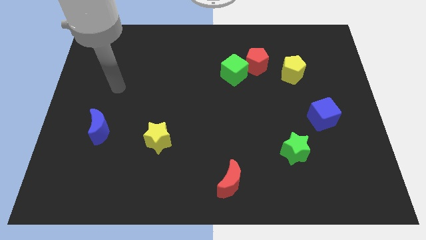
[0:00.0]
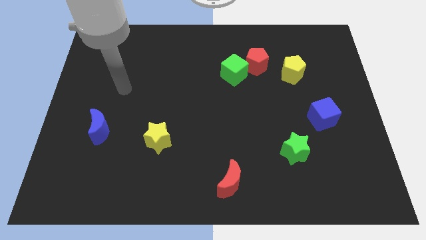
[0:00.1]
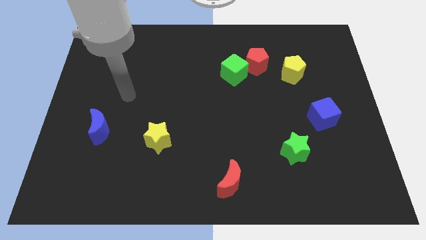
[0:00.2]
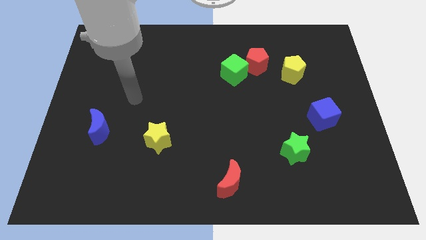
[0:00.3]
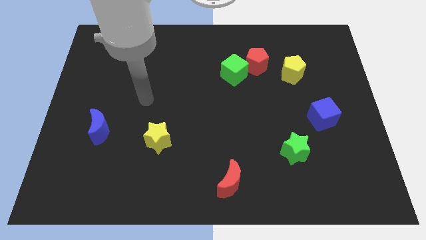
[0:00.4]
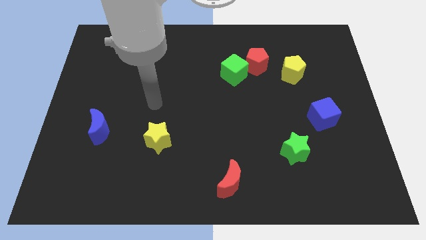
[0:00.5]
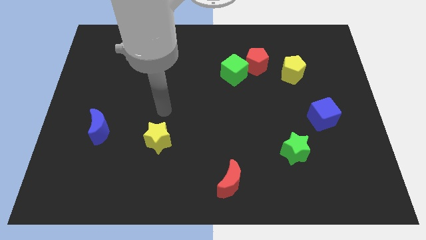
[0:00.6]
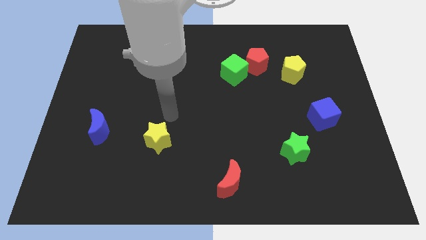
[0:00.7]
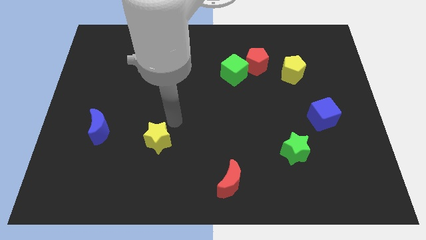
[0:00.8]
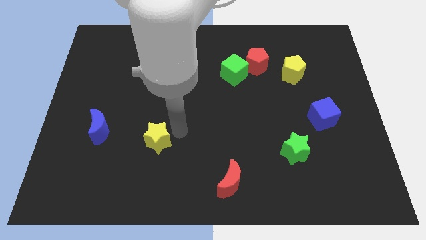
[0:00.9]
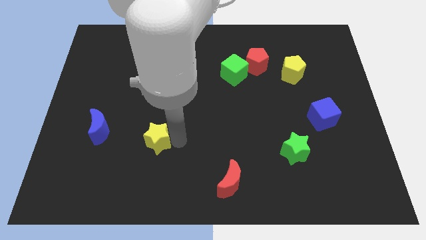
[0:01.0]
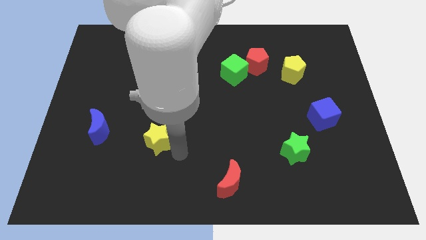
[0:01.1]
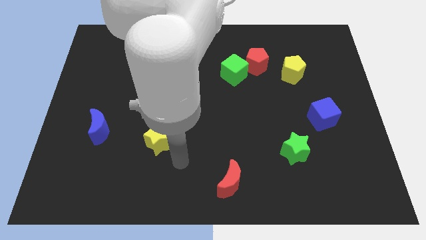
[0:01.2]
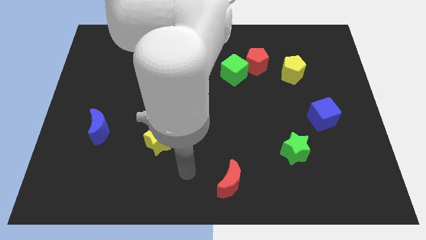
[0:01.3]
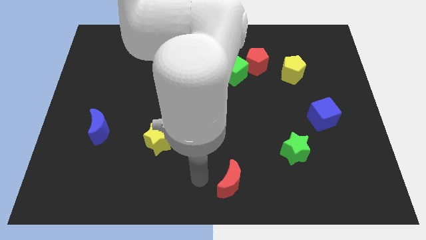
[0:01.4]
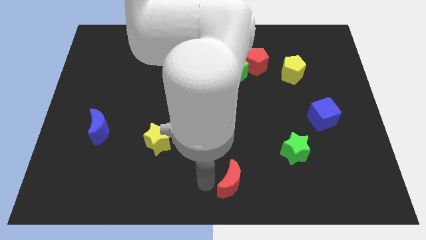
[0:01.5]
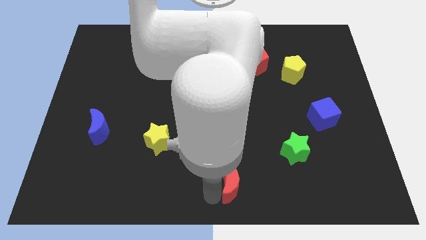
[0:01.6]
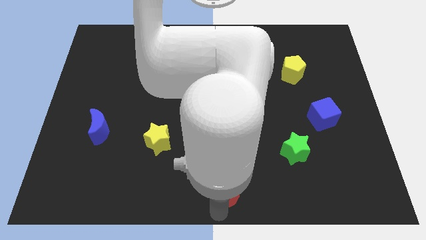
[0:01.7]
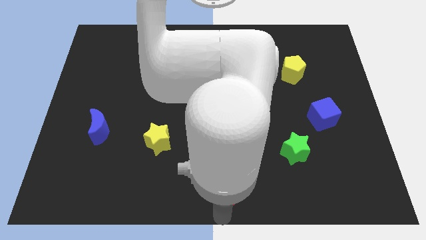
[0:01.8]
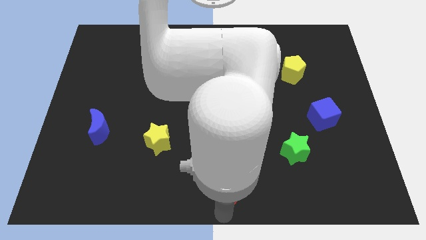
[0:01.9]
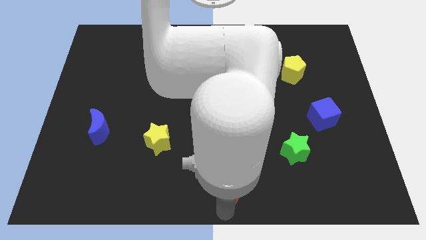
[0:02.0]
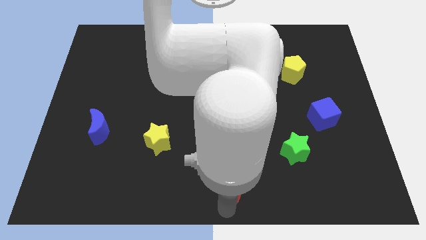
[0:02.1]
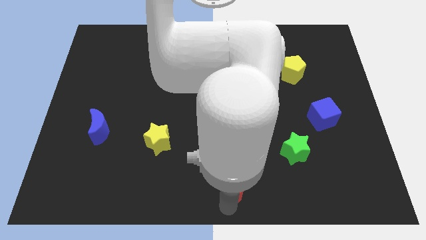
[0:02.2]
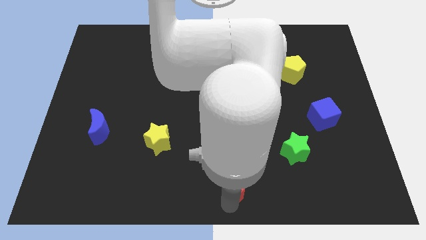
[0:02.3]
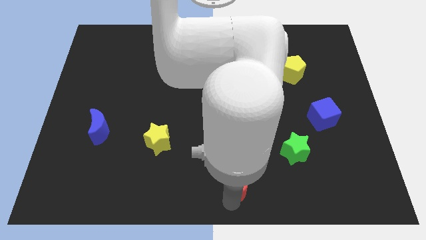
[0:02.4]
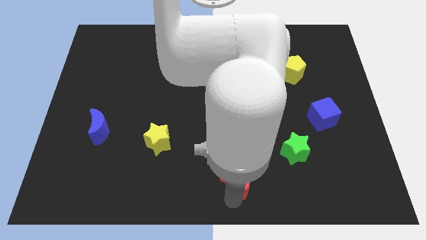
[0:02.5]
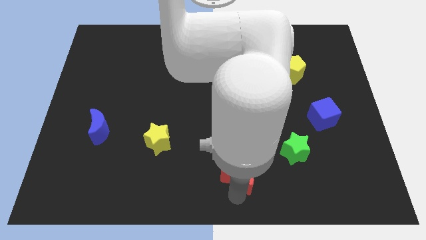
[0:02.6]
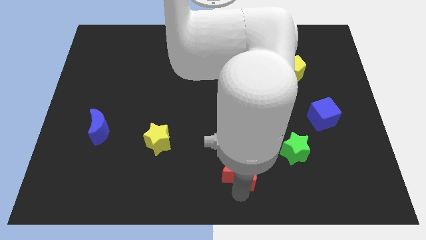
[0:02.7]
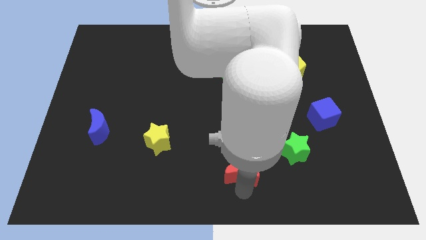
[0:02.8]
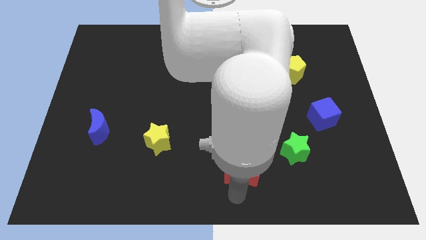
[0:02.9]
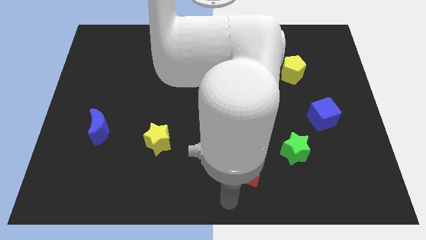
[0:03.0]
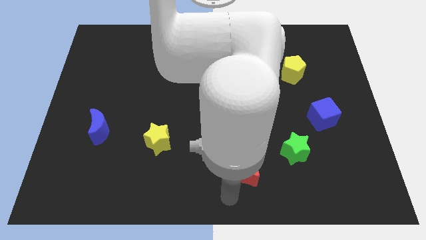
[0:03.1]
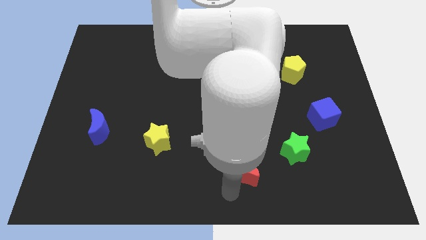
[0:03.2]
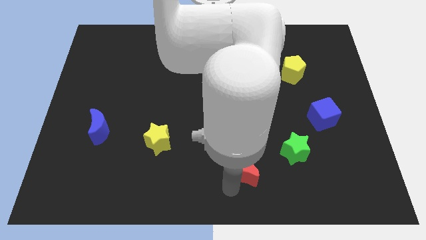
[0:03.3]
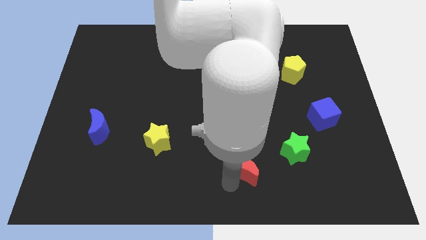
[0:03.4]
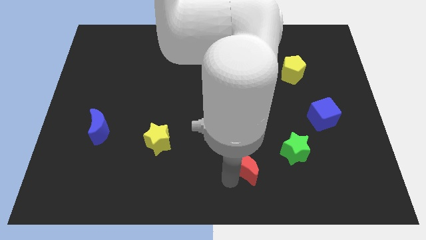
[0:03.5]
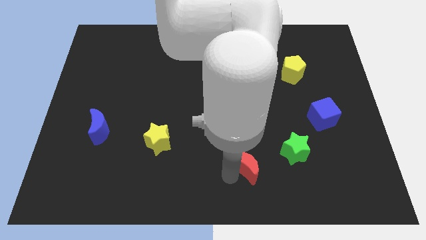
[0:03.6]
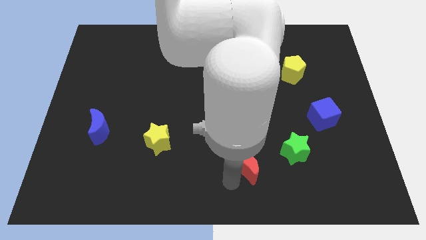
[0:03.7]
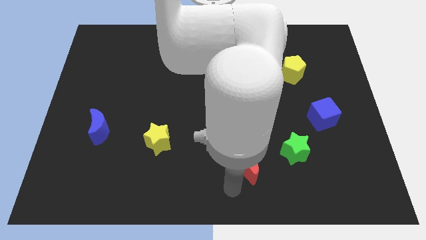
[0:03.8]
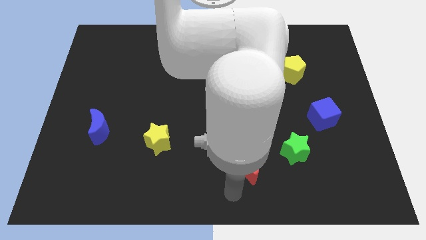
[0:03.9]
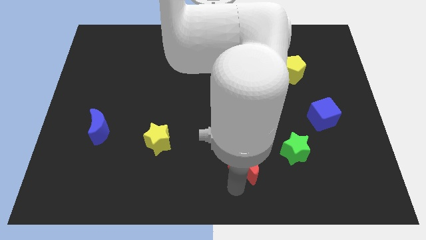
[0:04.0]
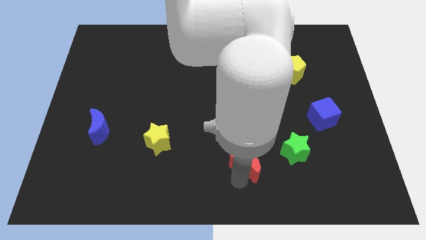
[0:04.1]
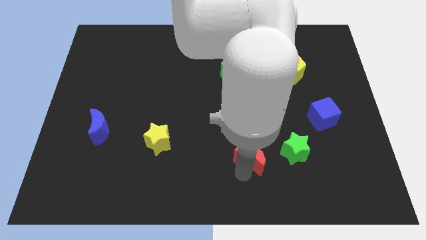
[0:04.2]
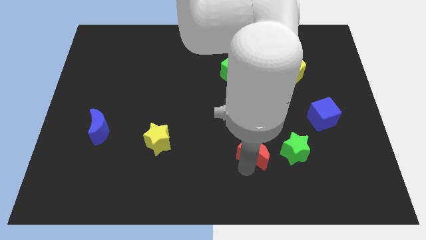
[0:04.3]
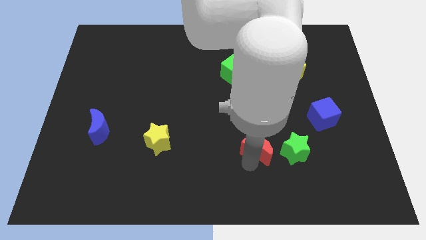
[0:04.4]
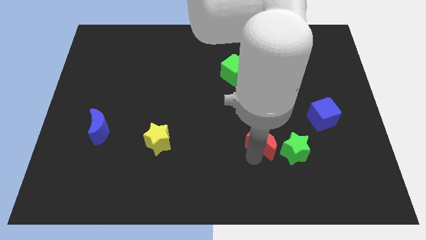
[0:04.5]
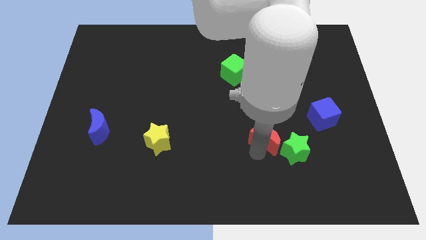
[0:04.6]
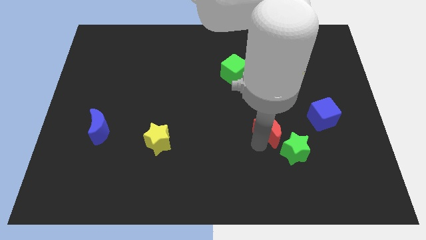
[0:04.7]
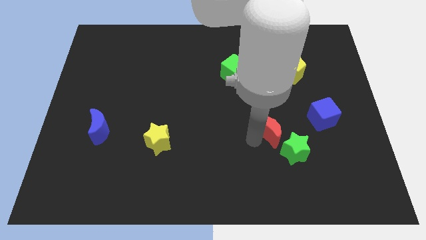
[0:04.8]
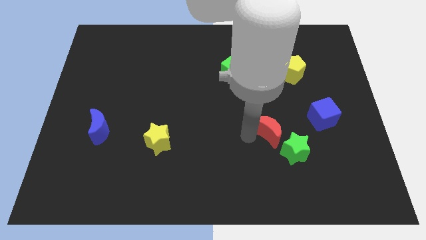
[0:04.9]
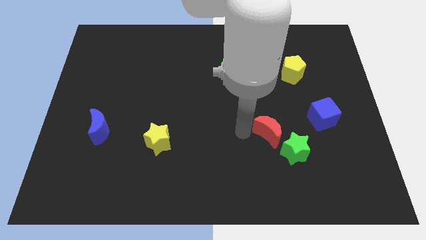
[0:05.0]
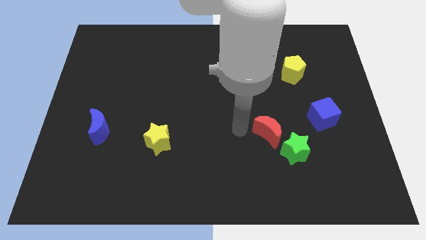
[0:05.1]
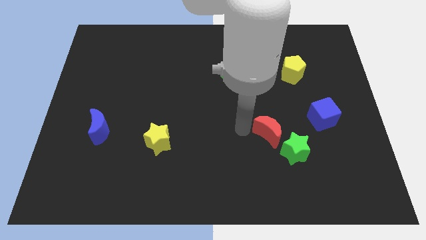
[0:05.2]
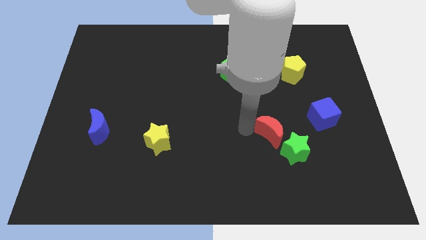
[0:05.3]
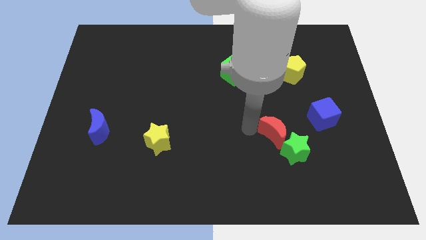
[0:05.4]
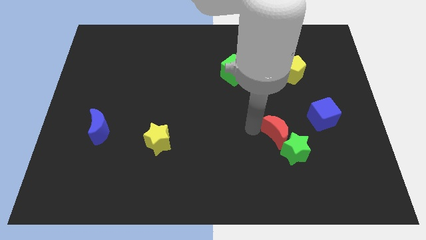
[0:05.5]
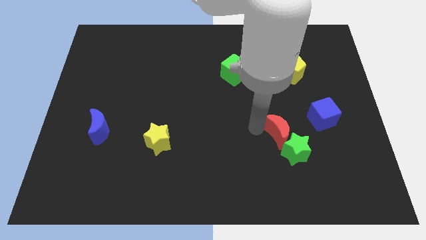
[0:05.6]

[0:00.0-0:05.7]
slide the red moon to the bottom left side of the blue cube
